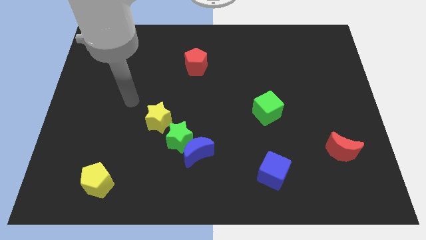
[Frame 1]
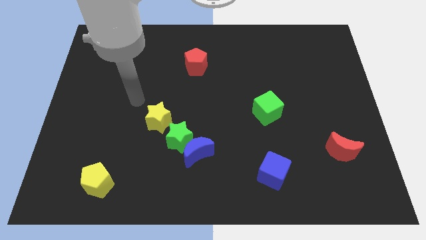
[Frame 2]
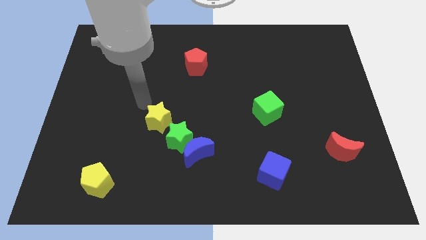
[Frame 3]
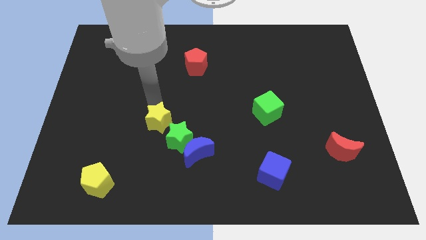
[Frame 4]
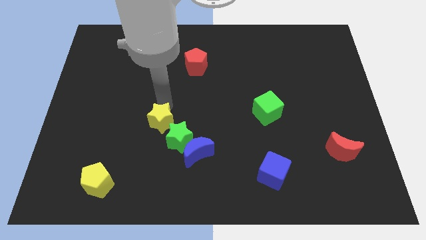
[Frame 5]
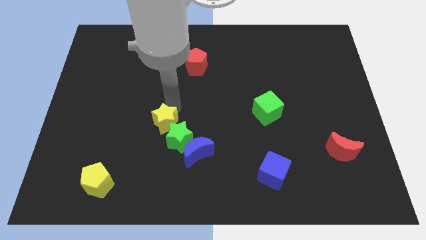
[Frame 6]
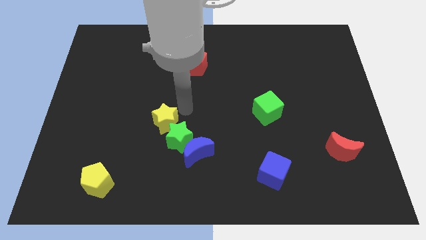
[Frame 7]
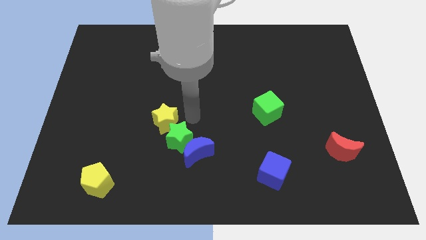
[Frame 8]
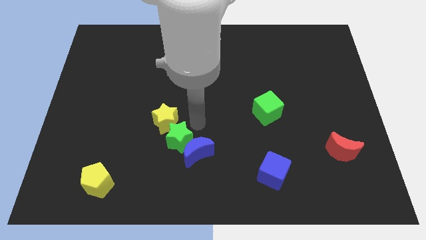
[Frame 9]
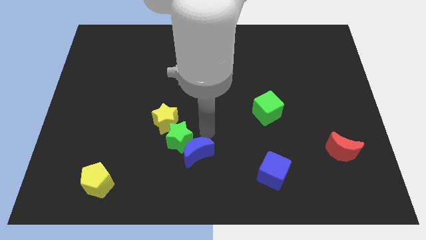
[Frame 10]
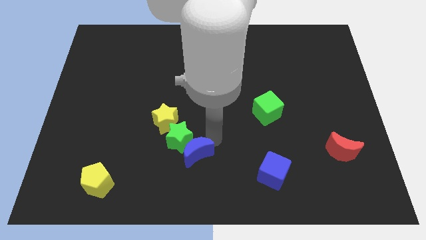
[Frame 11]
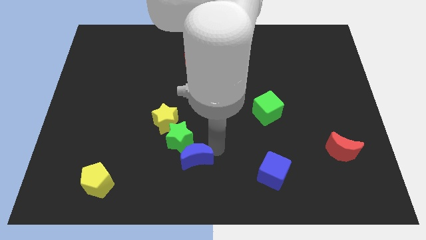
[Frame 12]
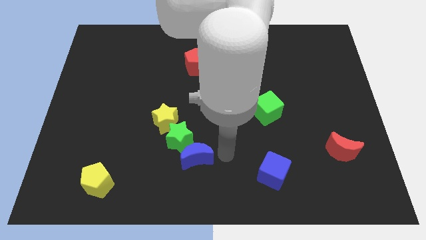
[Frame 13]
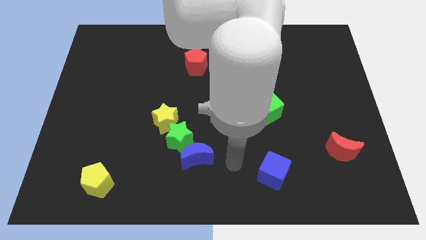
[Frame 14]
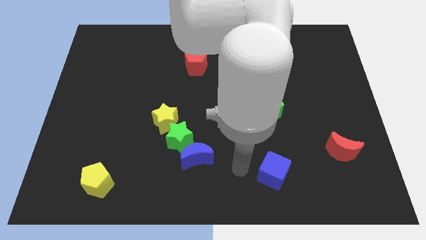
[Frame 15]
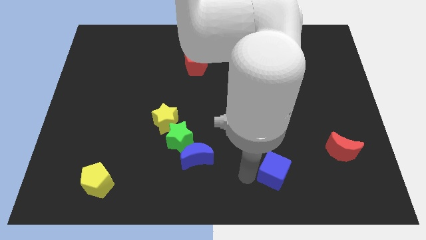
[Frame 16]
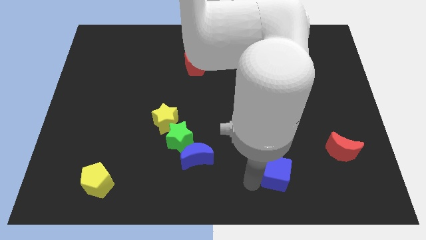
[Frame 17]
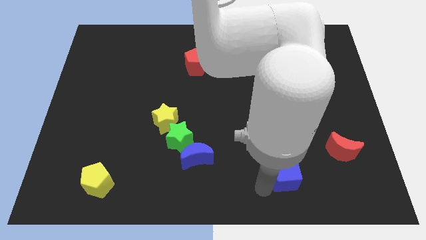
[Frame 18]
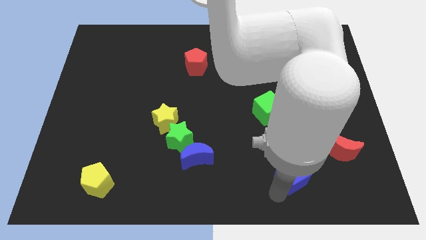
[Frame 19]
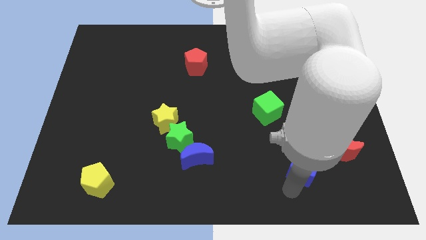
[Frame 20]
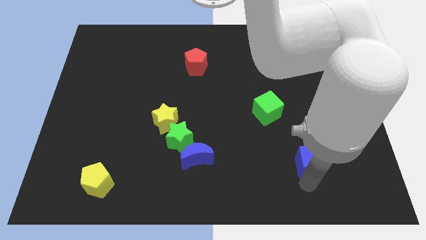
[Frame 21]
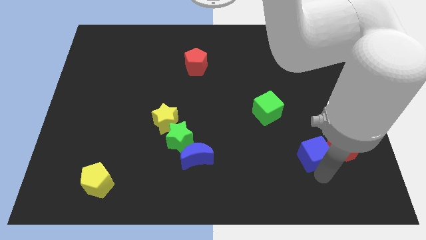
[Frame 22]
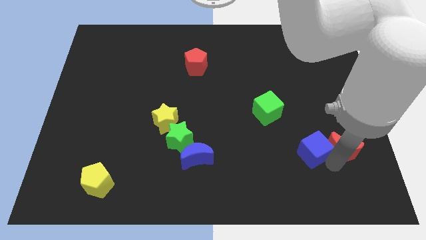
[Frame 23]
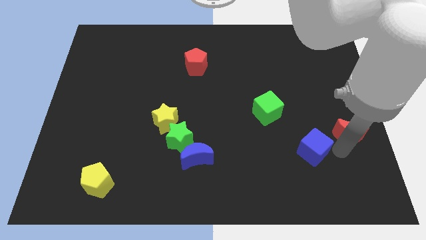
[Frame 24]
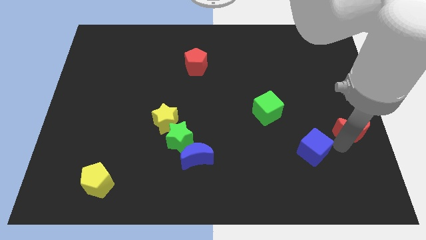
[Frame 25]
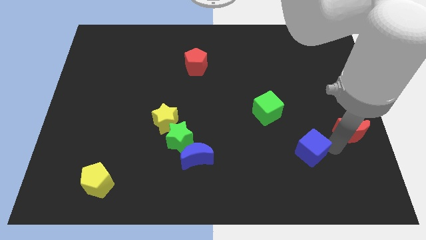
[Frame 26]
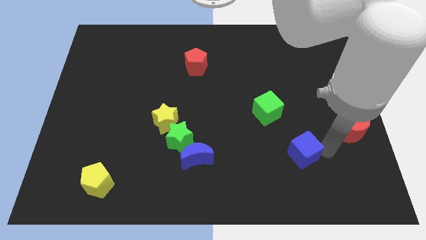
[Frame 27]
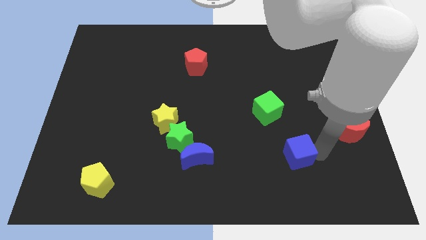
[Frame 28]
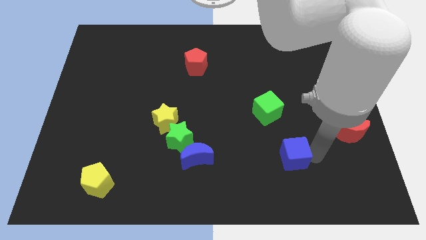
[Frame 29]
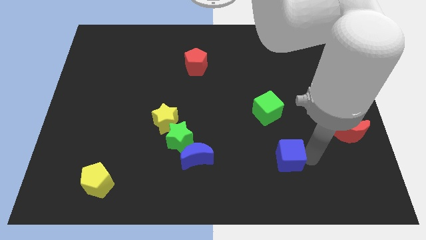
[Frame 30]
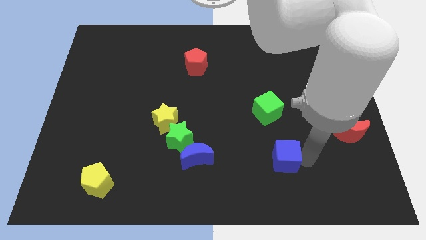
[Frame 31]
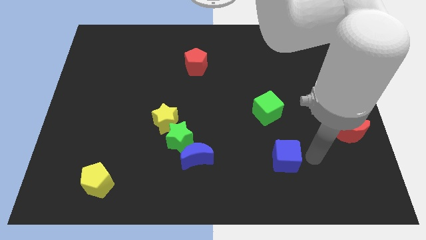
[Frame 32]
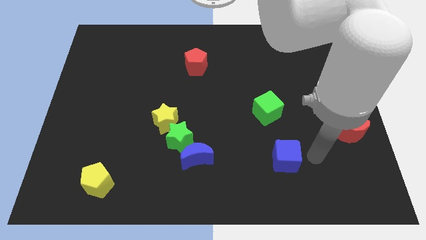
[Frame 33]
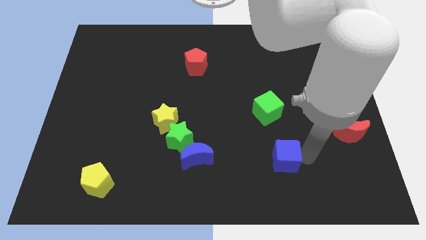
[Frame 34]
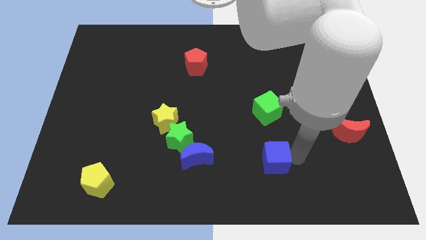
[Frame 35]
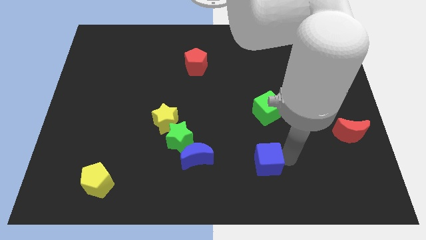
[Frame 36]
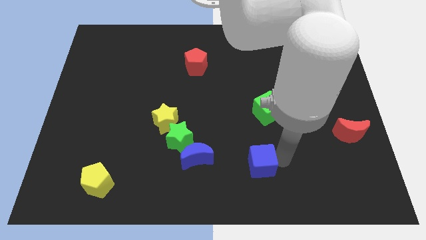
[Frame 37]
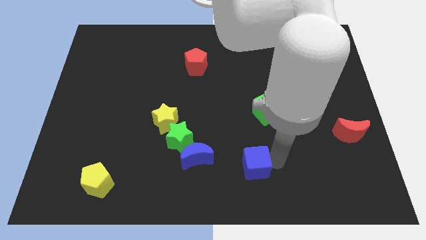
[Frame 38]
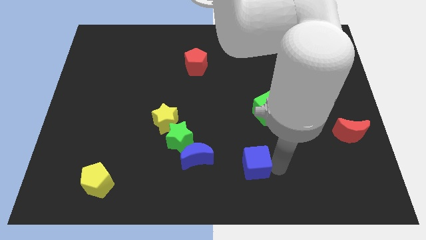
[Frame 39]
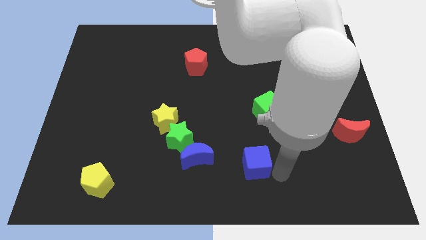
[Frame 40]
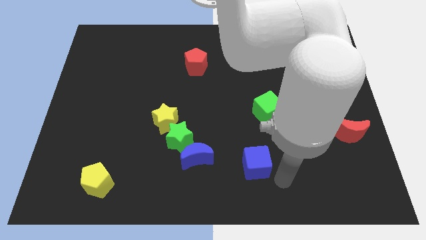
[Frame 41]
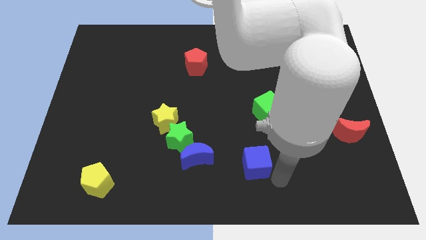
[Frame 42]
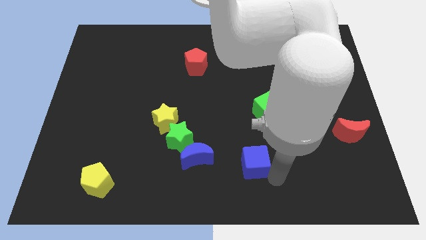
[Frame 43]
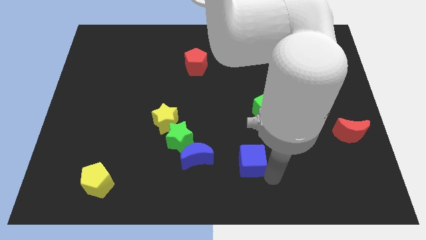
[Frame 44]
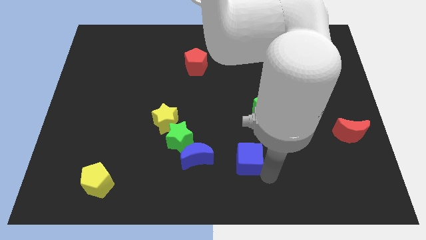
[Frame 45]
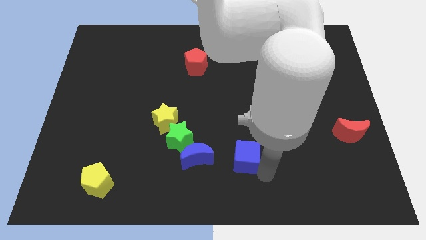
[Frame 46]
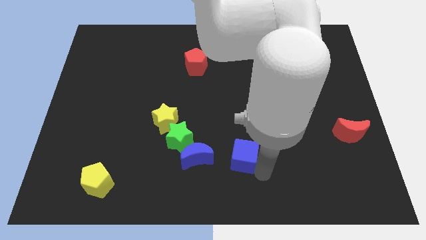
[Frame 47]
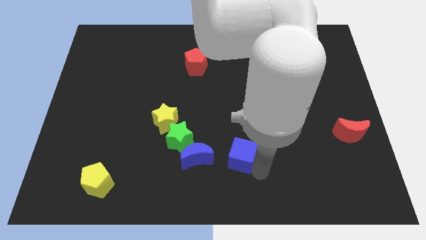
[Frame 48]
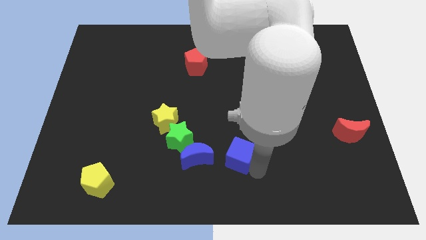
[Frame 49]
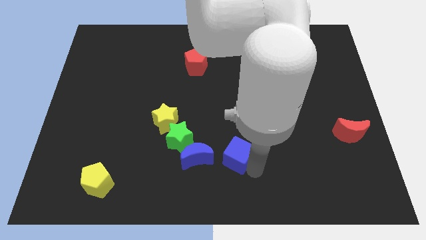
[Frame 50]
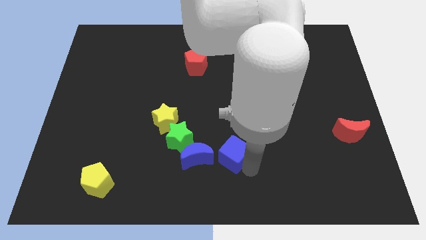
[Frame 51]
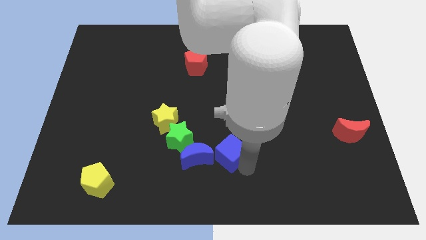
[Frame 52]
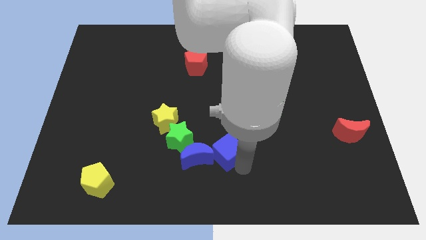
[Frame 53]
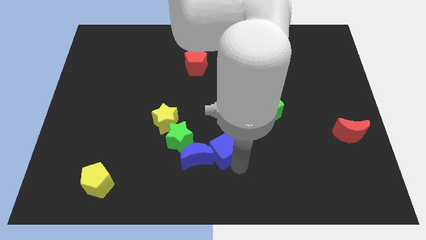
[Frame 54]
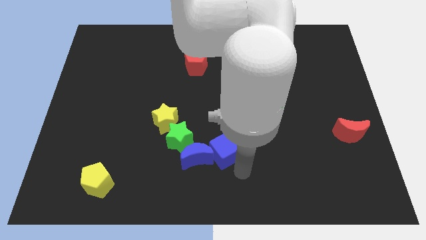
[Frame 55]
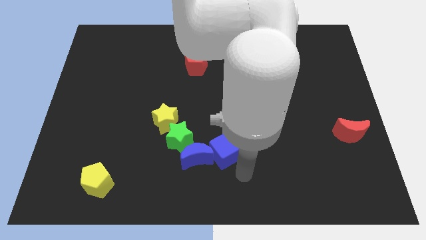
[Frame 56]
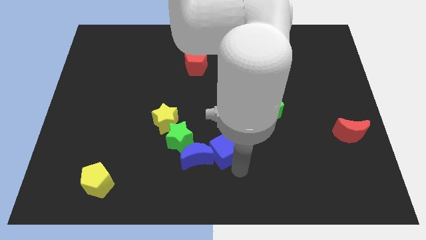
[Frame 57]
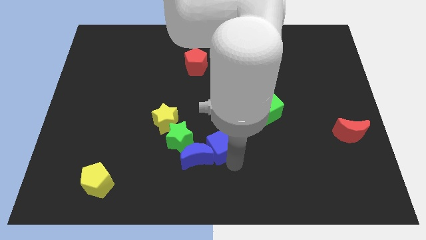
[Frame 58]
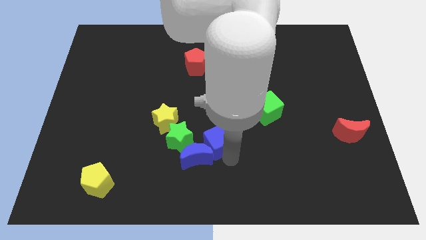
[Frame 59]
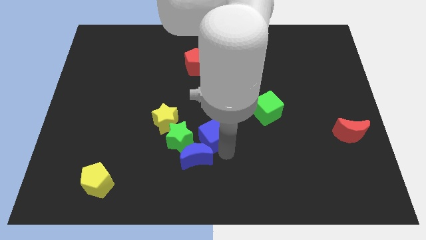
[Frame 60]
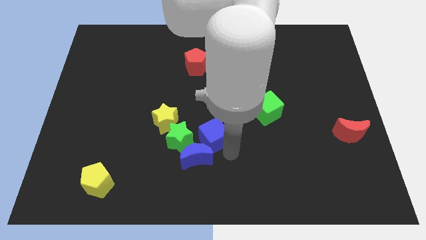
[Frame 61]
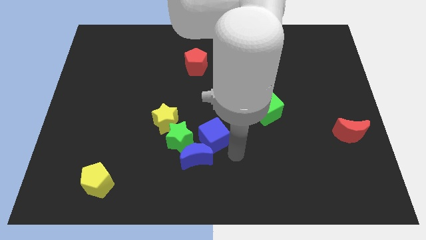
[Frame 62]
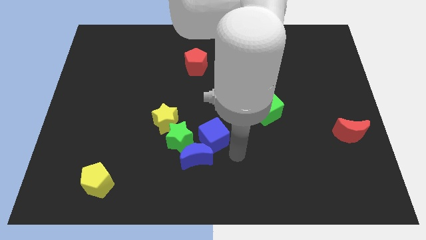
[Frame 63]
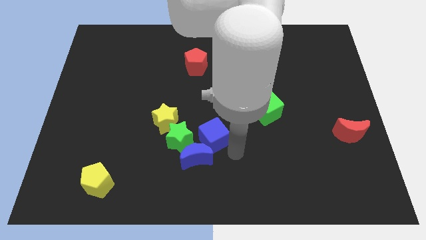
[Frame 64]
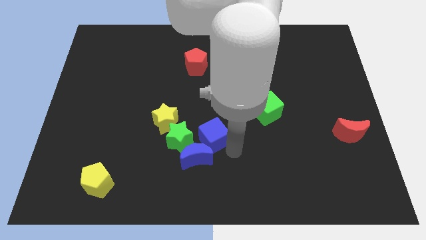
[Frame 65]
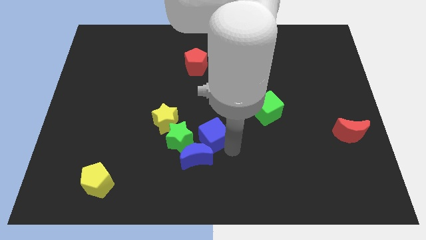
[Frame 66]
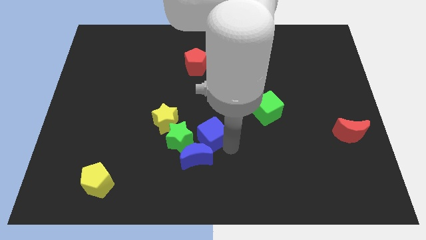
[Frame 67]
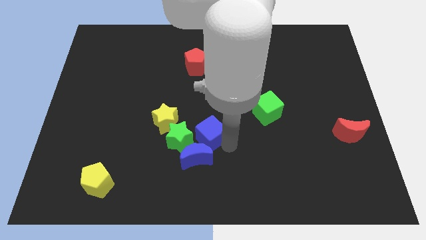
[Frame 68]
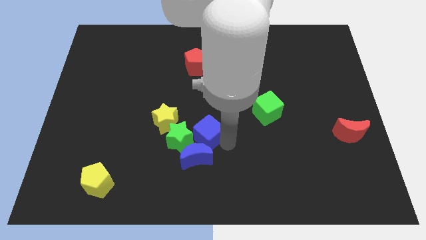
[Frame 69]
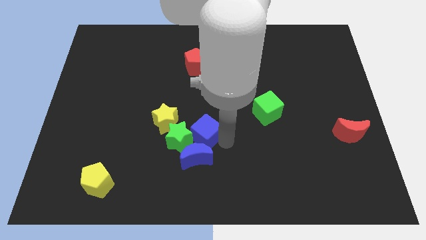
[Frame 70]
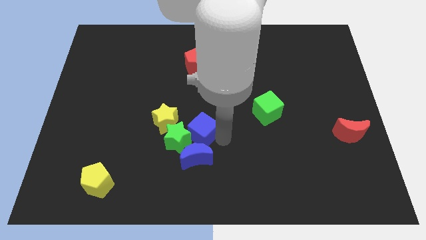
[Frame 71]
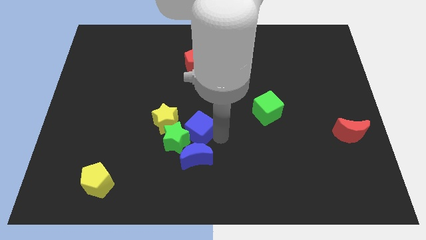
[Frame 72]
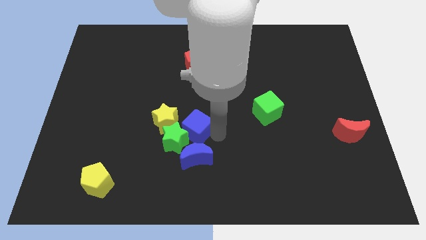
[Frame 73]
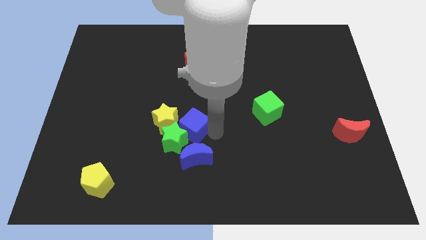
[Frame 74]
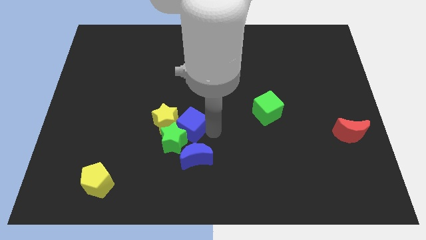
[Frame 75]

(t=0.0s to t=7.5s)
push the blue cube next to the yellow star
